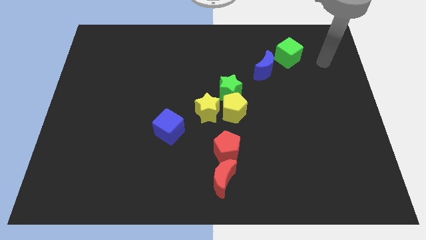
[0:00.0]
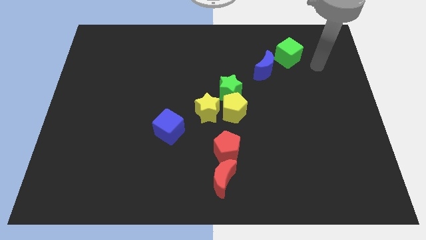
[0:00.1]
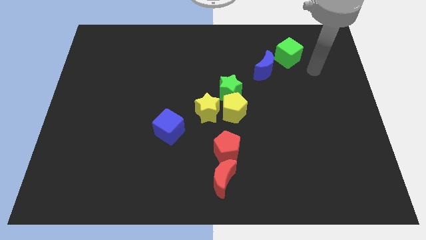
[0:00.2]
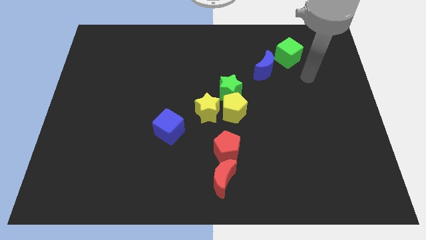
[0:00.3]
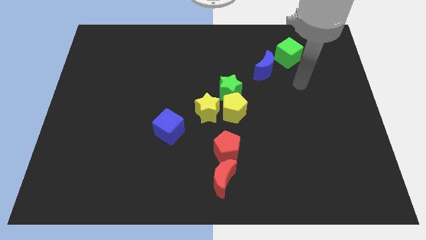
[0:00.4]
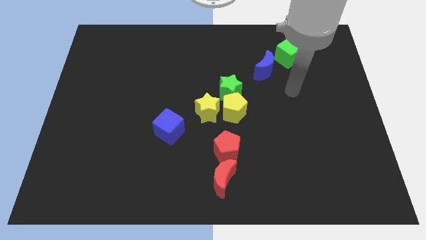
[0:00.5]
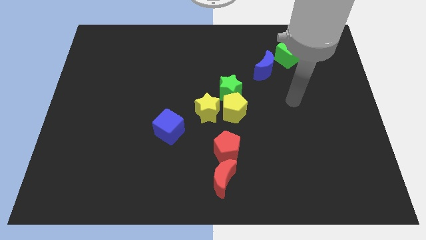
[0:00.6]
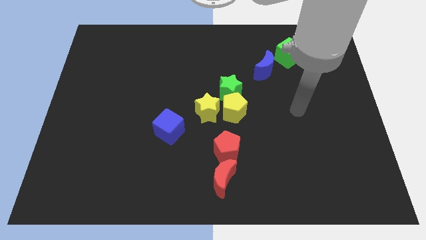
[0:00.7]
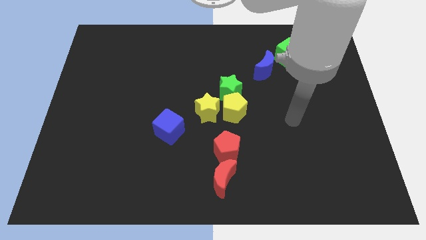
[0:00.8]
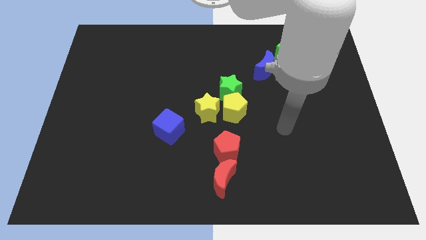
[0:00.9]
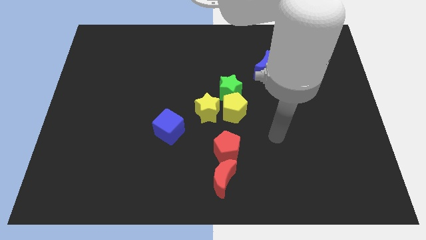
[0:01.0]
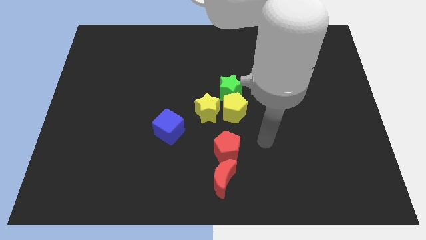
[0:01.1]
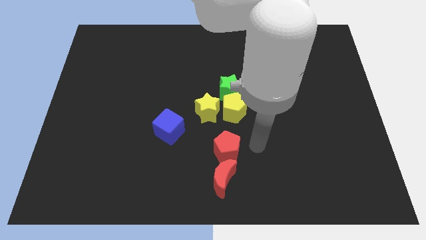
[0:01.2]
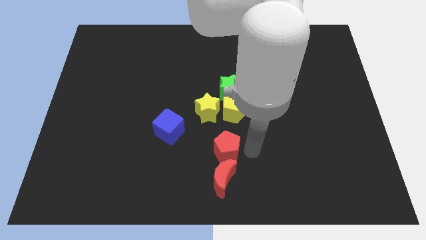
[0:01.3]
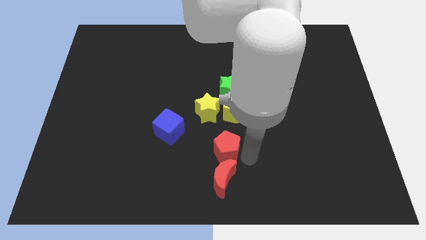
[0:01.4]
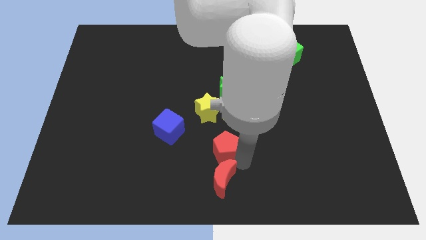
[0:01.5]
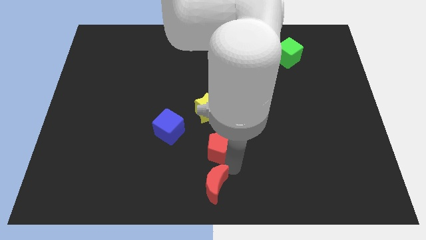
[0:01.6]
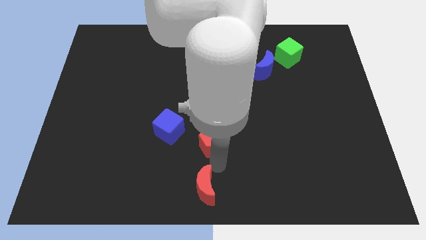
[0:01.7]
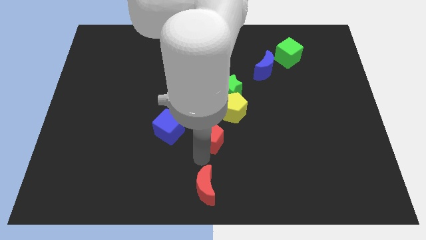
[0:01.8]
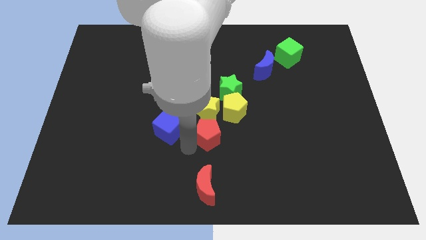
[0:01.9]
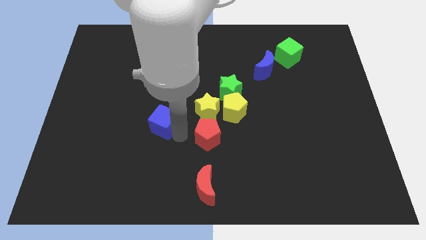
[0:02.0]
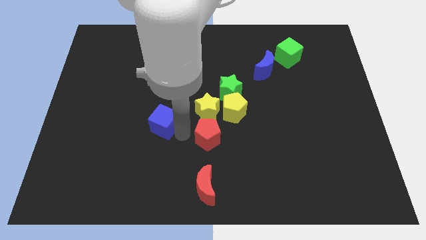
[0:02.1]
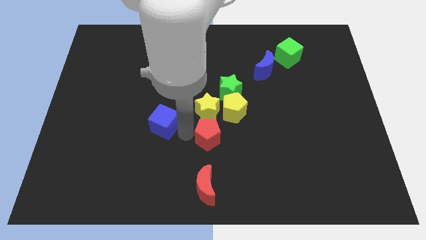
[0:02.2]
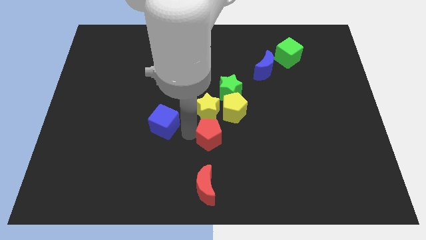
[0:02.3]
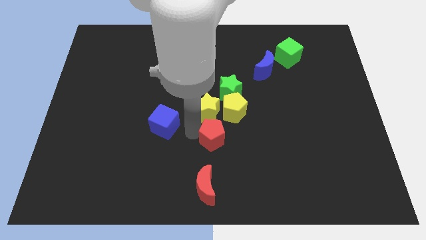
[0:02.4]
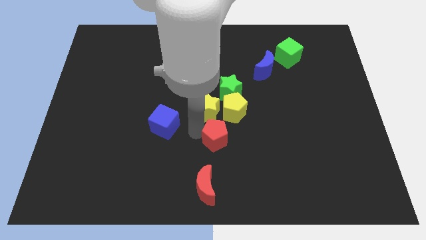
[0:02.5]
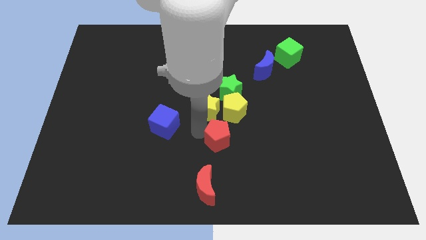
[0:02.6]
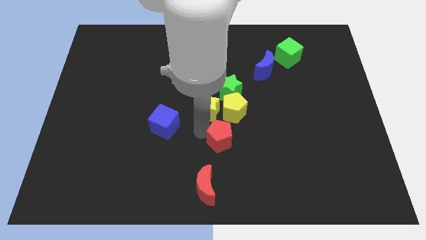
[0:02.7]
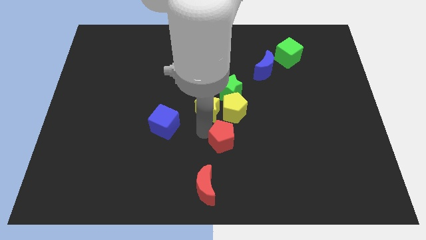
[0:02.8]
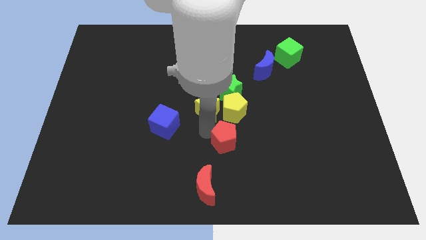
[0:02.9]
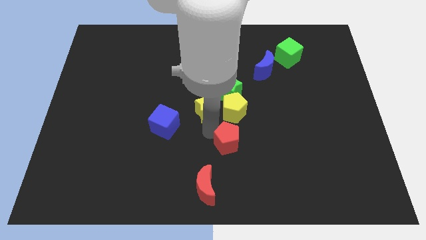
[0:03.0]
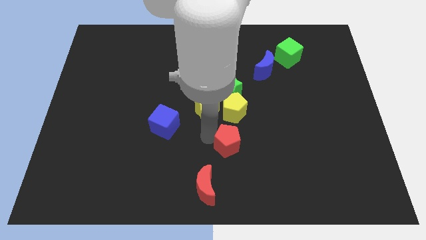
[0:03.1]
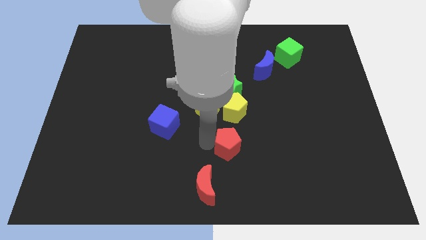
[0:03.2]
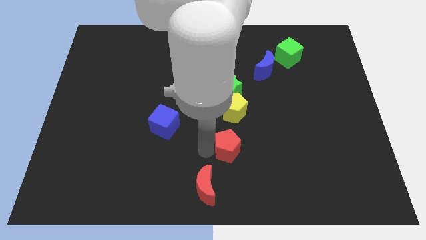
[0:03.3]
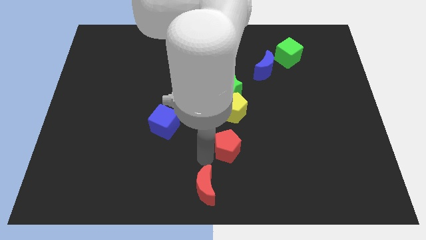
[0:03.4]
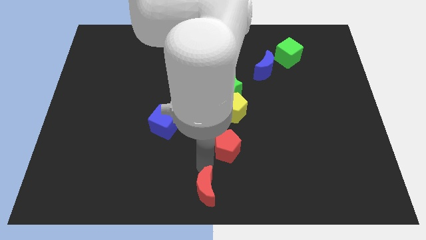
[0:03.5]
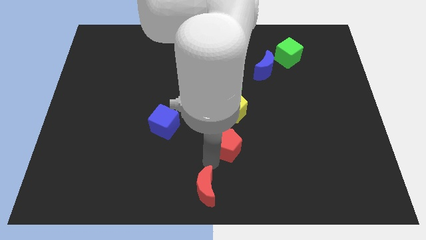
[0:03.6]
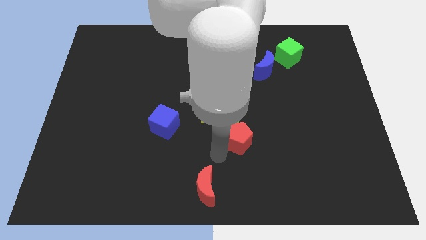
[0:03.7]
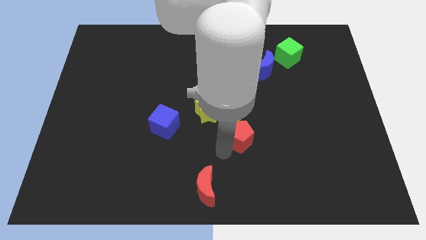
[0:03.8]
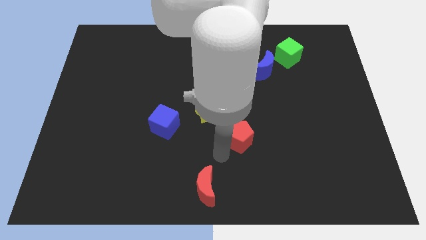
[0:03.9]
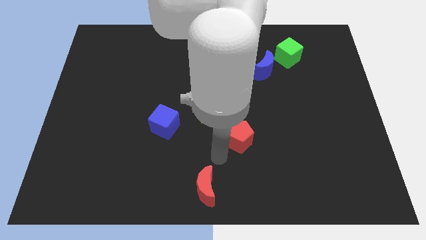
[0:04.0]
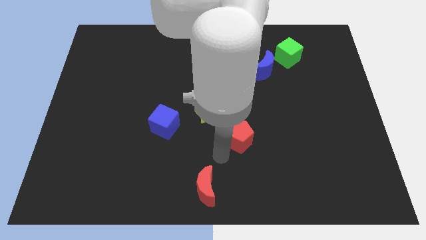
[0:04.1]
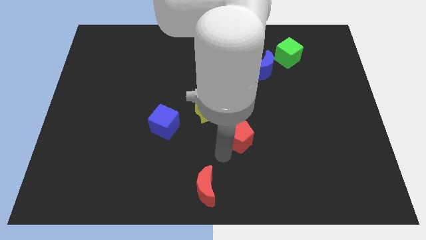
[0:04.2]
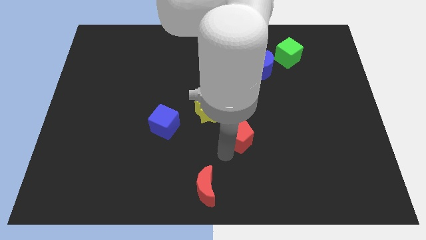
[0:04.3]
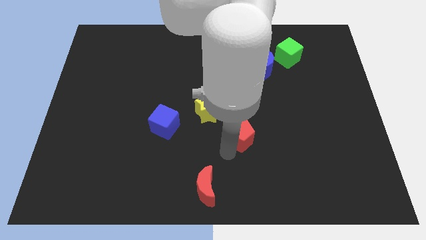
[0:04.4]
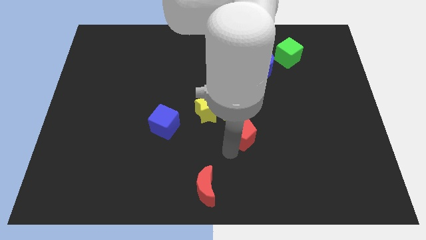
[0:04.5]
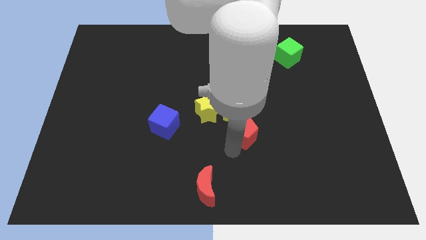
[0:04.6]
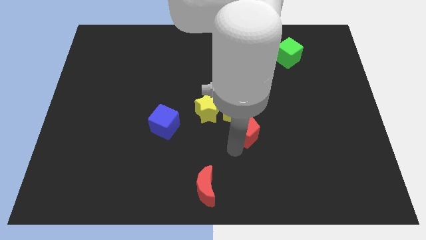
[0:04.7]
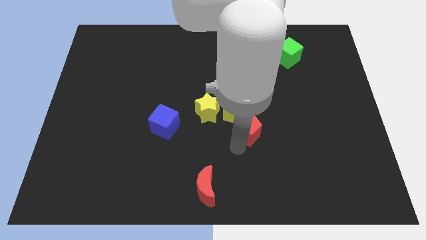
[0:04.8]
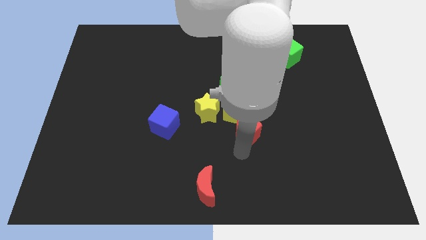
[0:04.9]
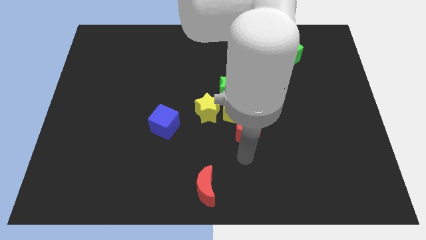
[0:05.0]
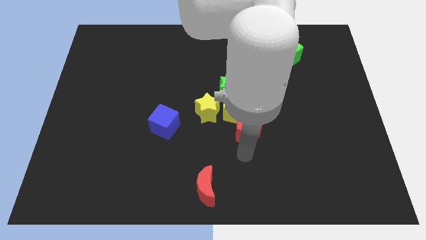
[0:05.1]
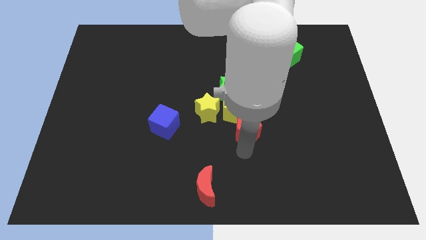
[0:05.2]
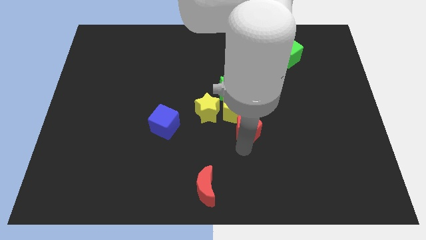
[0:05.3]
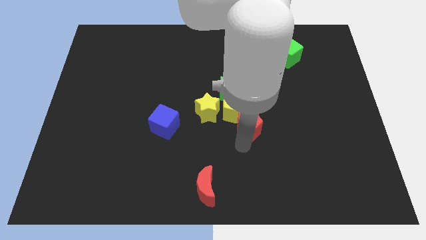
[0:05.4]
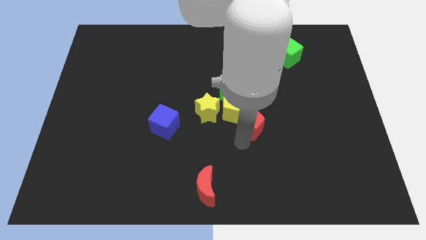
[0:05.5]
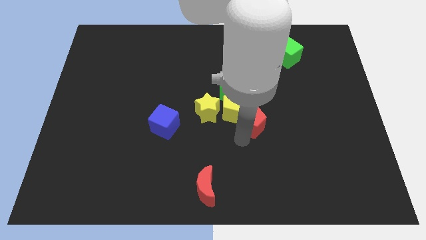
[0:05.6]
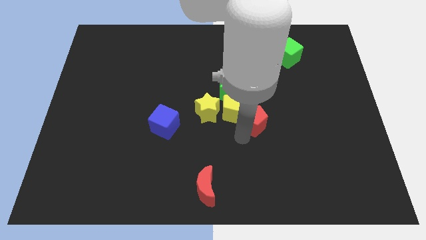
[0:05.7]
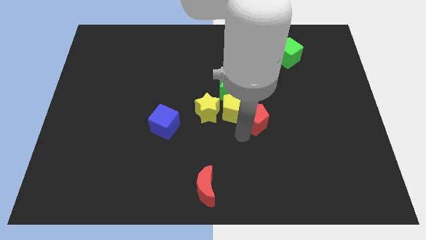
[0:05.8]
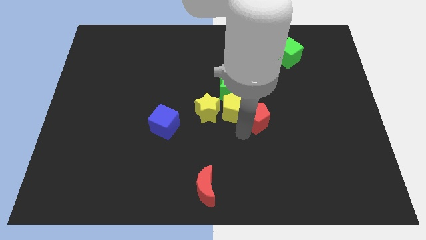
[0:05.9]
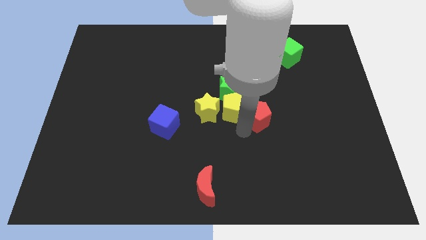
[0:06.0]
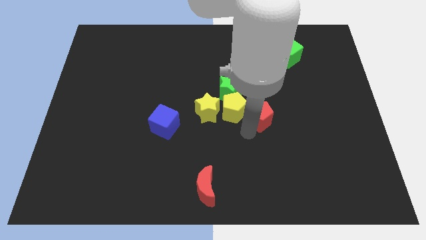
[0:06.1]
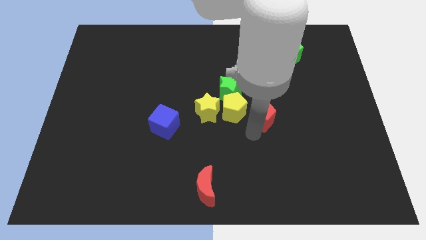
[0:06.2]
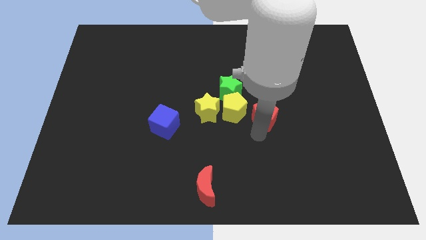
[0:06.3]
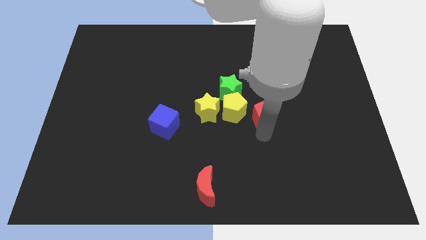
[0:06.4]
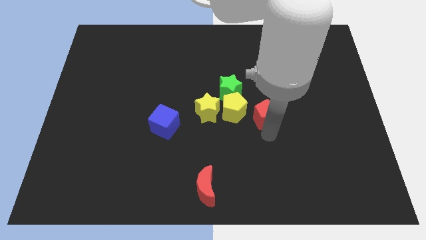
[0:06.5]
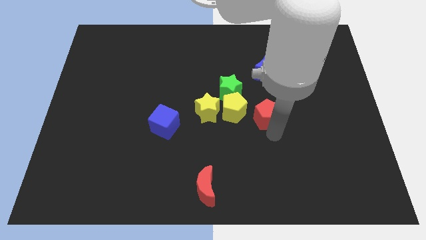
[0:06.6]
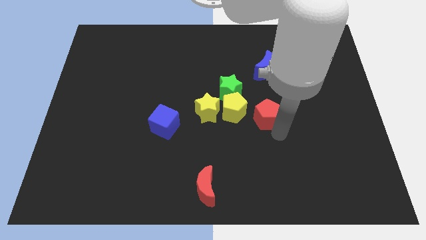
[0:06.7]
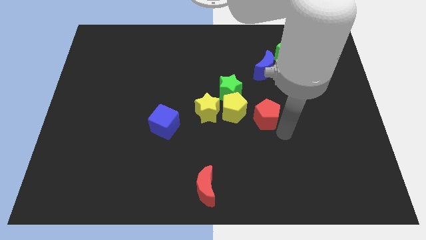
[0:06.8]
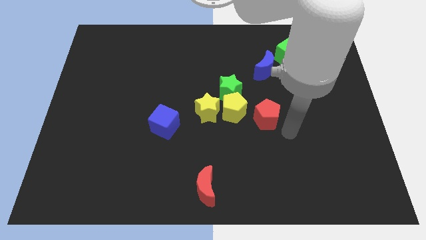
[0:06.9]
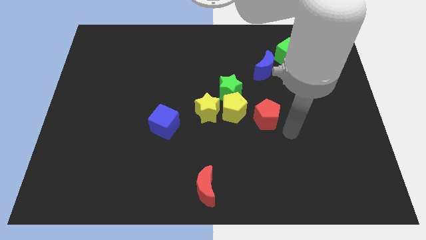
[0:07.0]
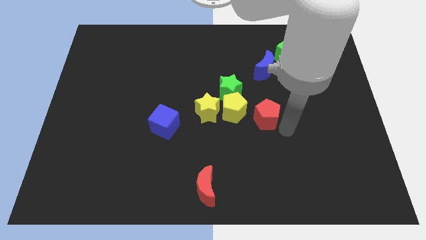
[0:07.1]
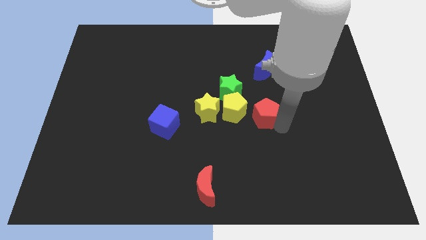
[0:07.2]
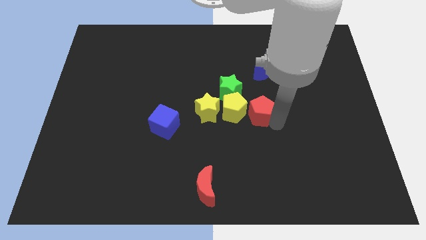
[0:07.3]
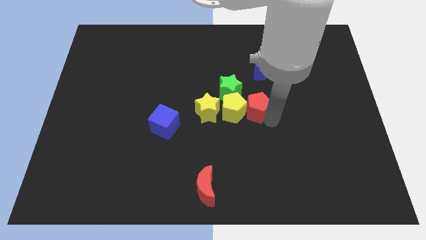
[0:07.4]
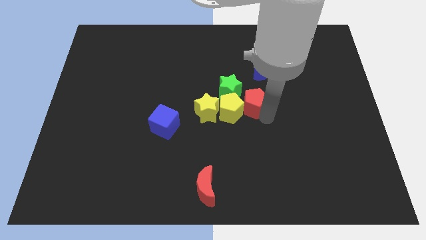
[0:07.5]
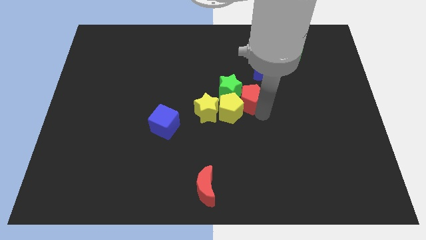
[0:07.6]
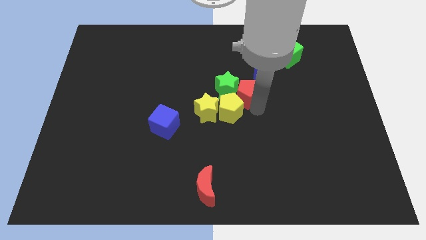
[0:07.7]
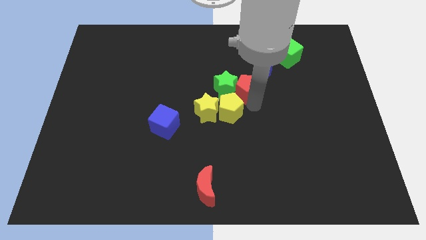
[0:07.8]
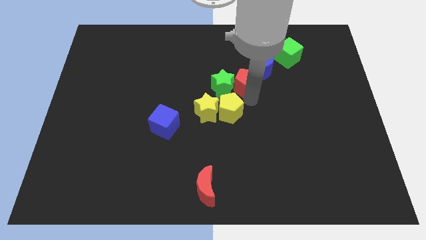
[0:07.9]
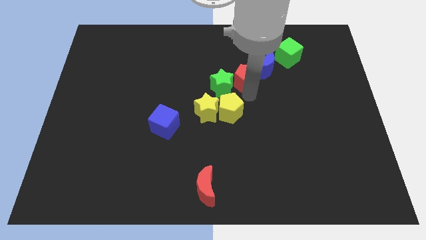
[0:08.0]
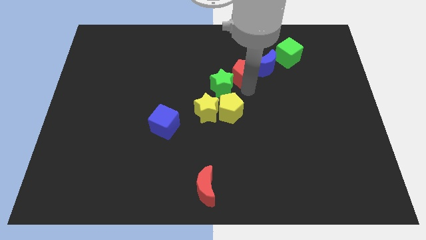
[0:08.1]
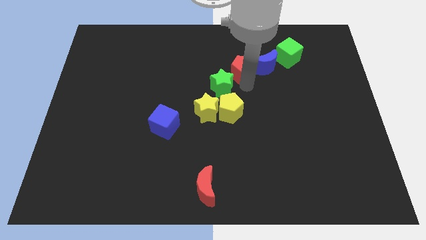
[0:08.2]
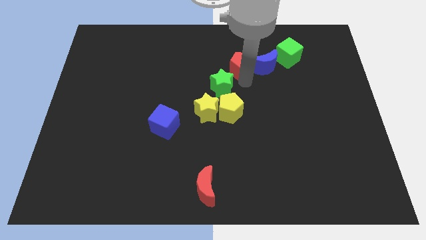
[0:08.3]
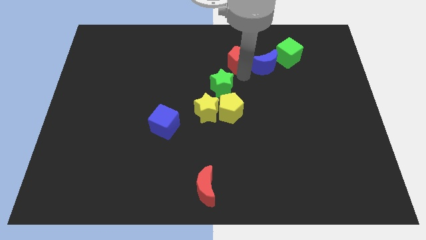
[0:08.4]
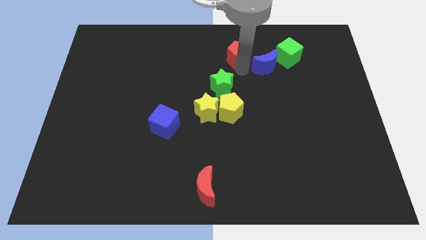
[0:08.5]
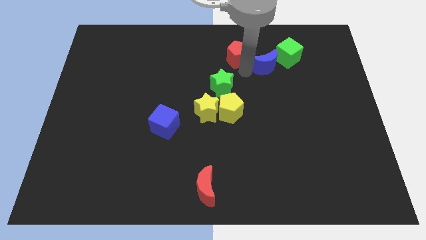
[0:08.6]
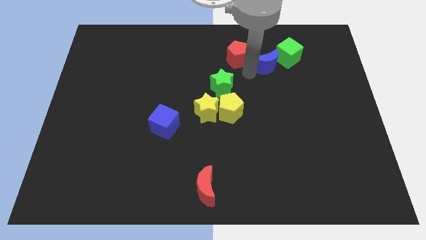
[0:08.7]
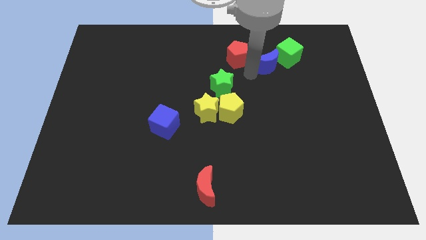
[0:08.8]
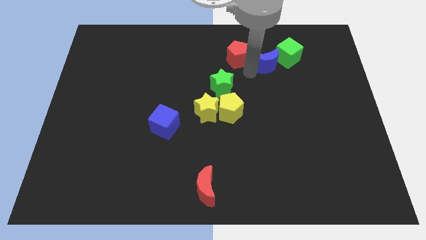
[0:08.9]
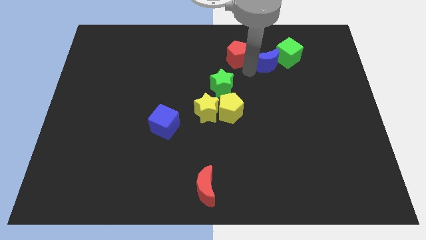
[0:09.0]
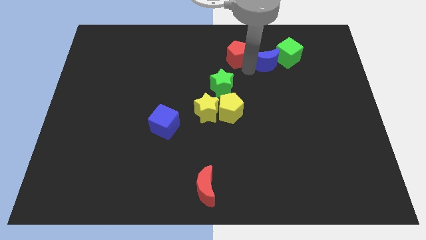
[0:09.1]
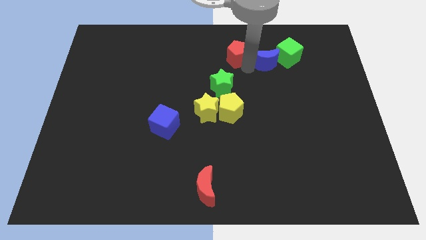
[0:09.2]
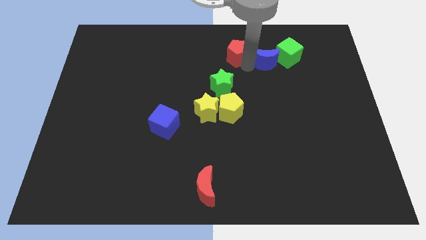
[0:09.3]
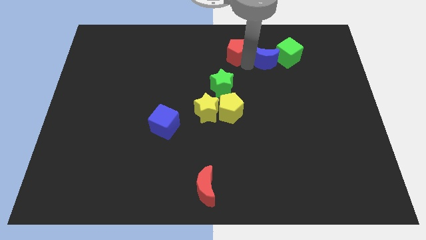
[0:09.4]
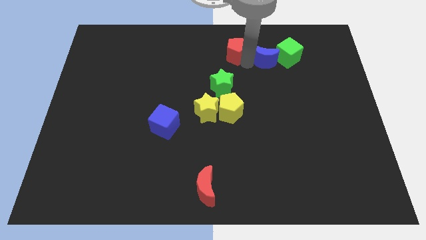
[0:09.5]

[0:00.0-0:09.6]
push the red pentagon to the top
